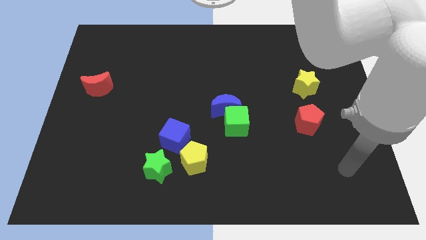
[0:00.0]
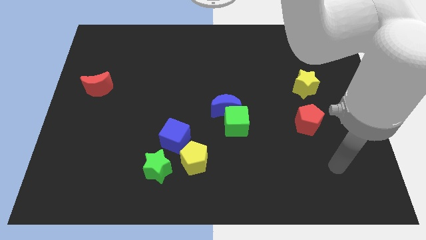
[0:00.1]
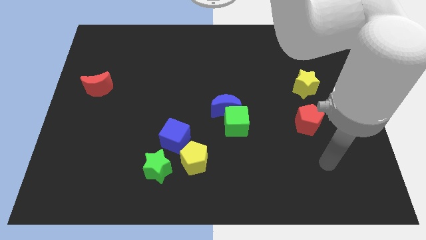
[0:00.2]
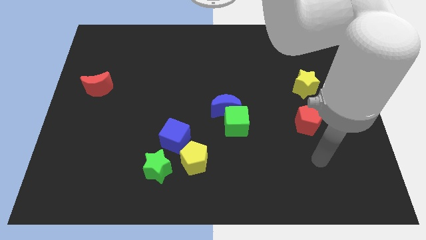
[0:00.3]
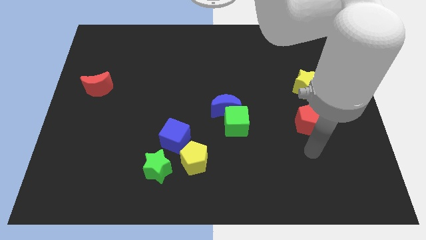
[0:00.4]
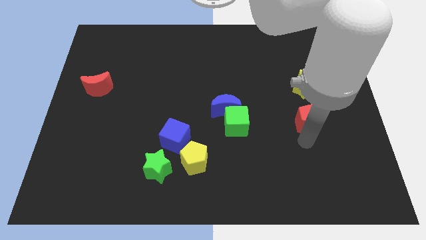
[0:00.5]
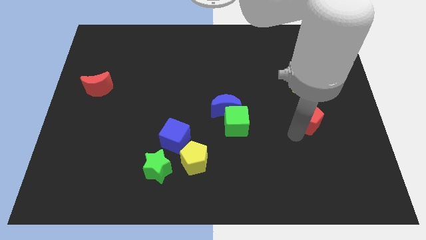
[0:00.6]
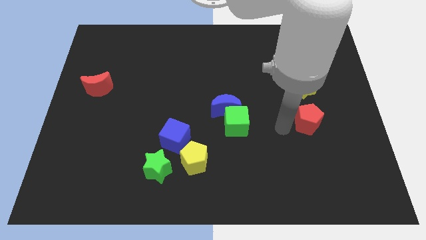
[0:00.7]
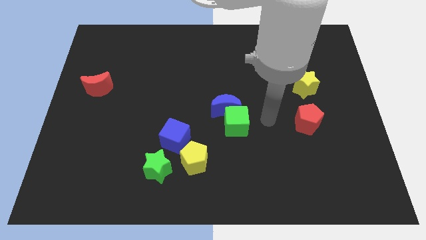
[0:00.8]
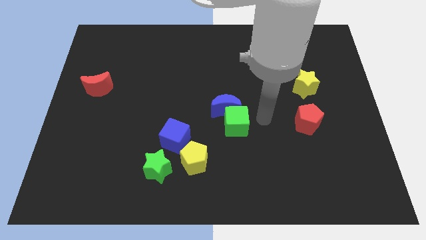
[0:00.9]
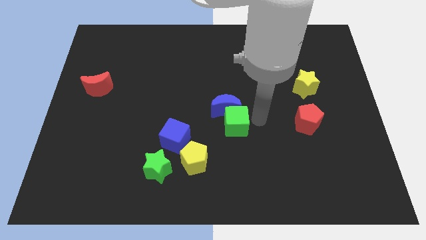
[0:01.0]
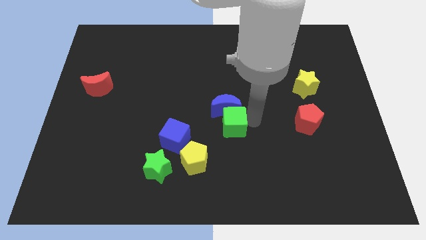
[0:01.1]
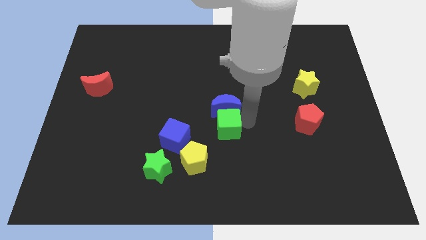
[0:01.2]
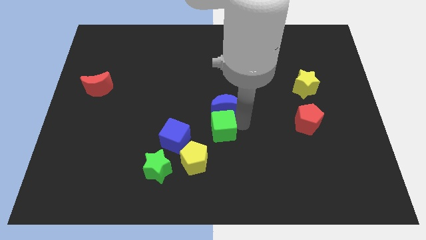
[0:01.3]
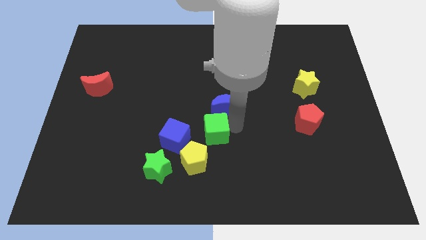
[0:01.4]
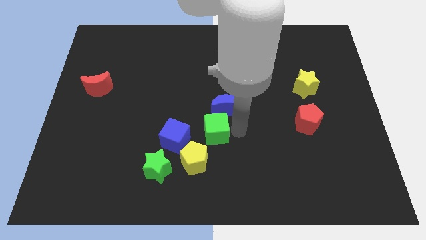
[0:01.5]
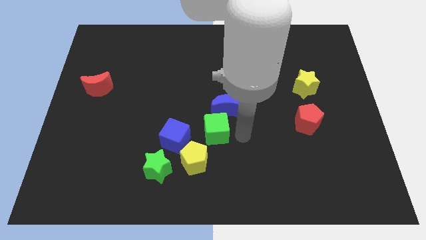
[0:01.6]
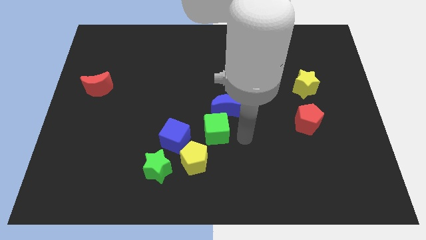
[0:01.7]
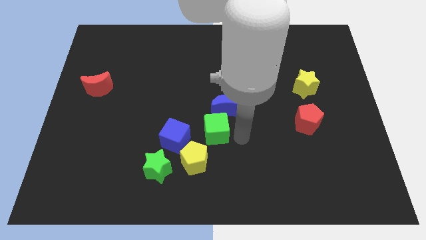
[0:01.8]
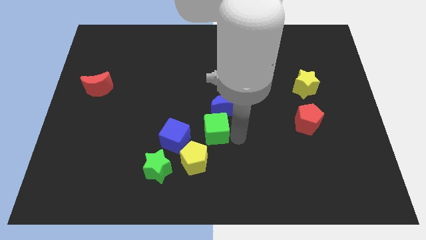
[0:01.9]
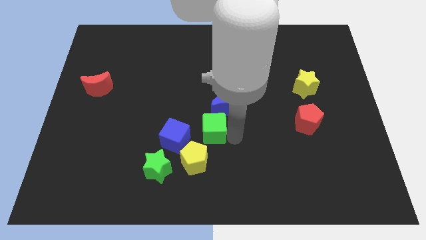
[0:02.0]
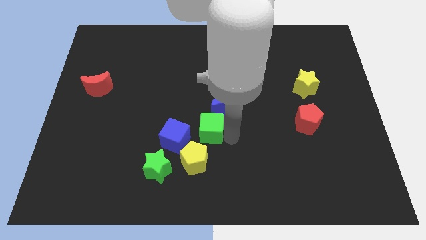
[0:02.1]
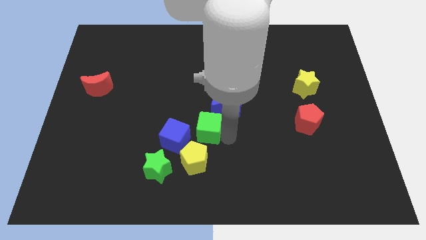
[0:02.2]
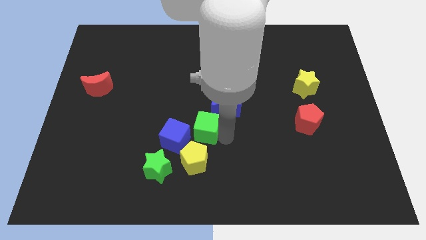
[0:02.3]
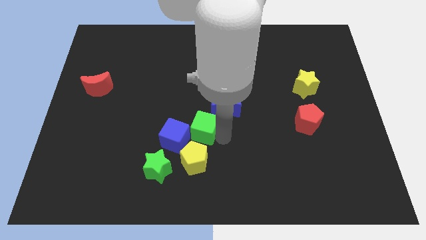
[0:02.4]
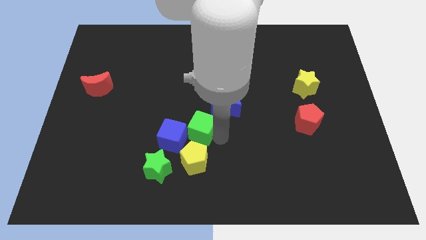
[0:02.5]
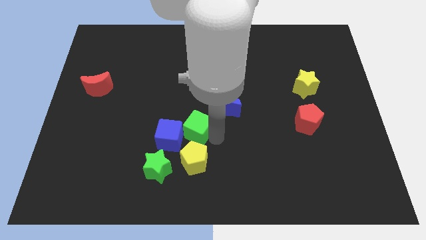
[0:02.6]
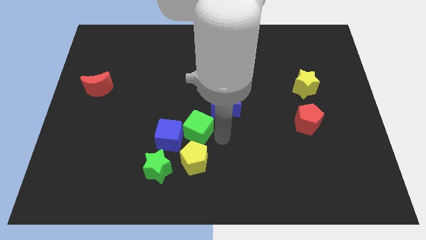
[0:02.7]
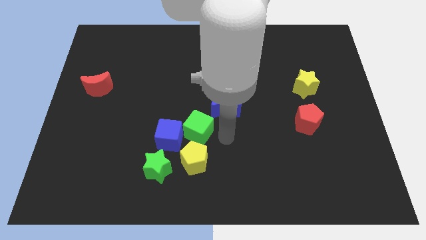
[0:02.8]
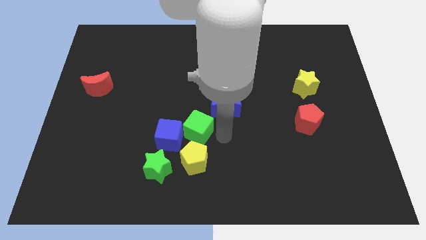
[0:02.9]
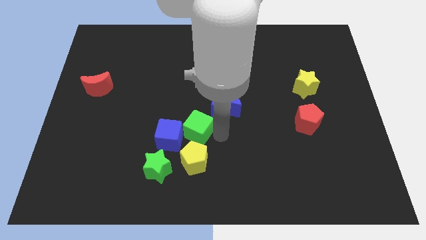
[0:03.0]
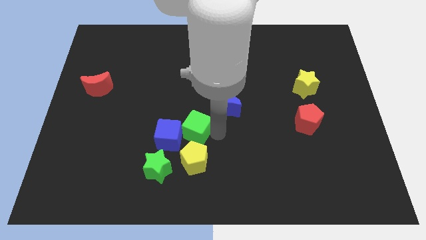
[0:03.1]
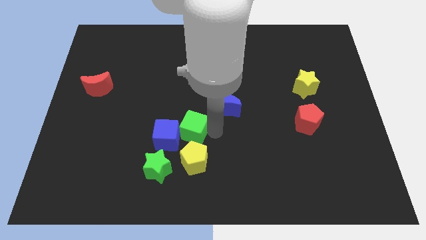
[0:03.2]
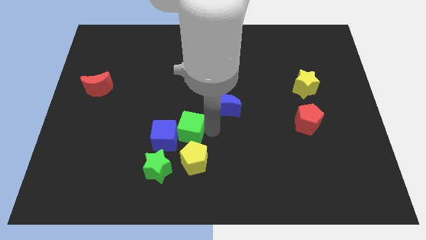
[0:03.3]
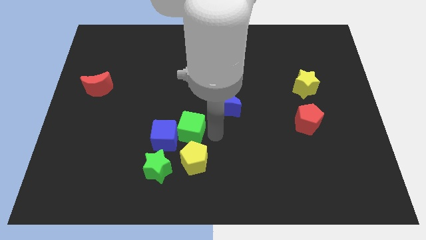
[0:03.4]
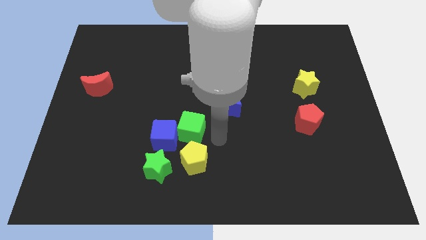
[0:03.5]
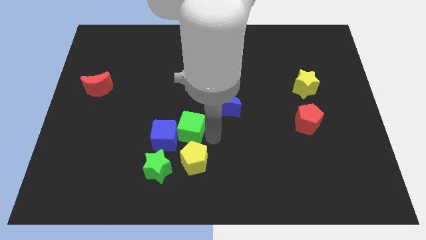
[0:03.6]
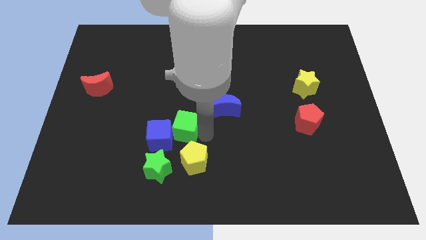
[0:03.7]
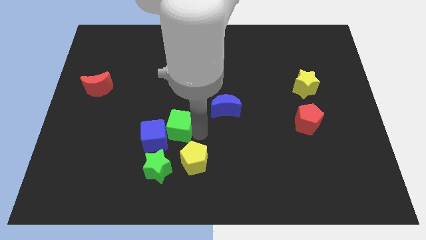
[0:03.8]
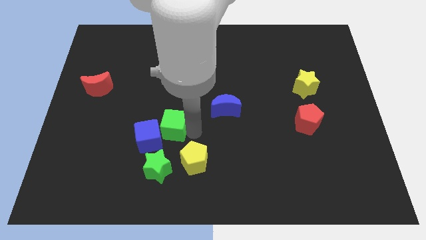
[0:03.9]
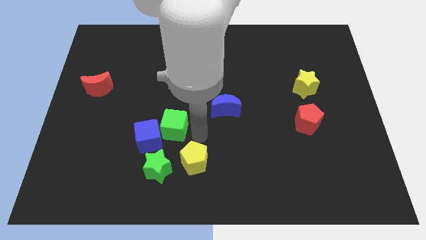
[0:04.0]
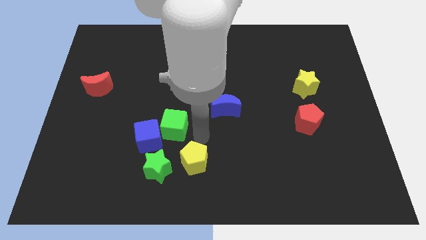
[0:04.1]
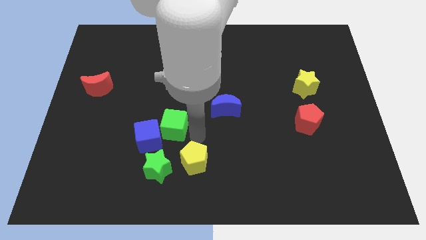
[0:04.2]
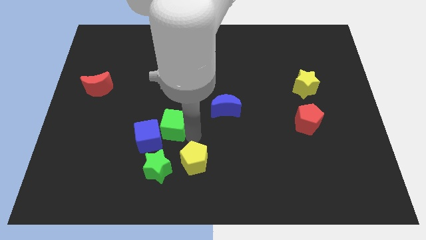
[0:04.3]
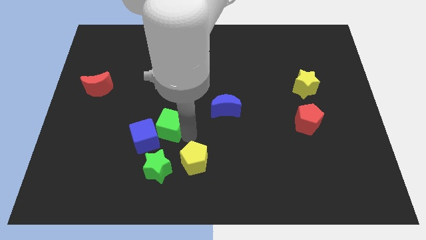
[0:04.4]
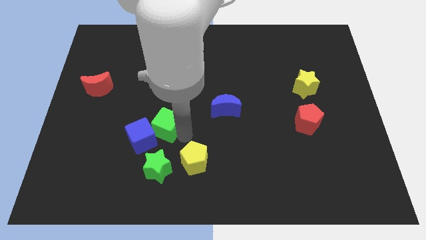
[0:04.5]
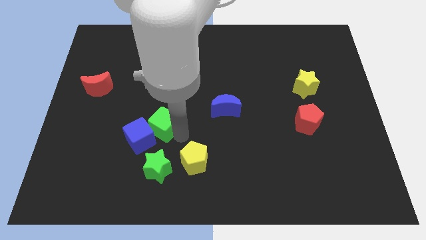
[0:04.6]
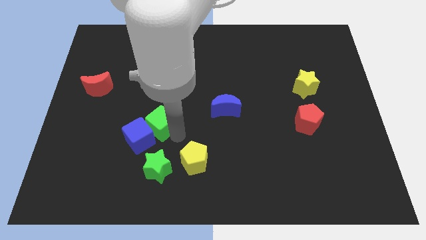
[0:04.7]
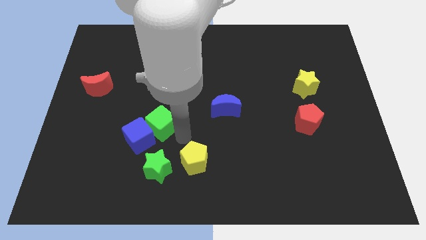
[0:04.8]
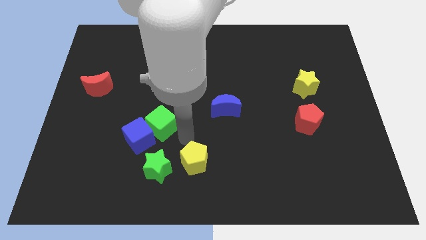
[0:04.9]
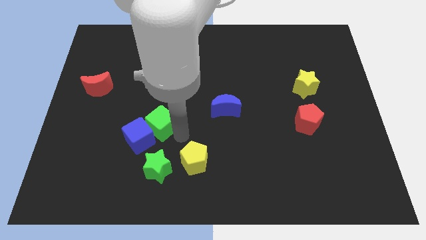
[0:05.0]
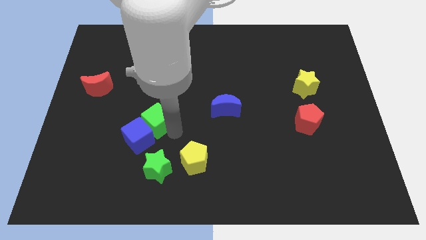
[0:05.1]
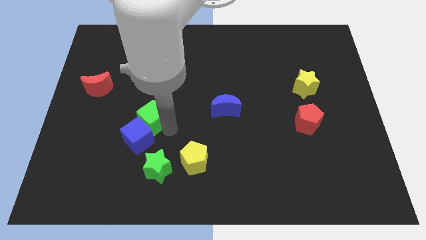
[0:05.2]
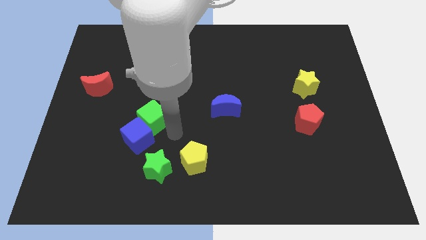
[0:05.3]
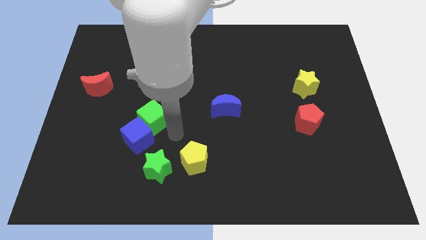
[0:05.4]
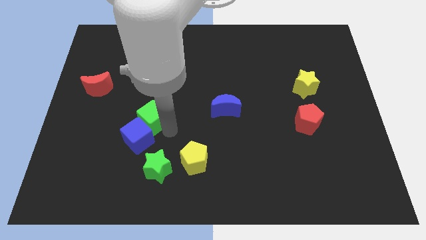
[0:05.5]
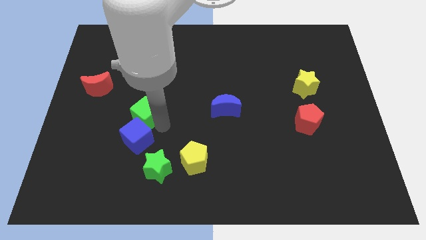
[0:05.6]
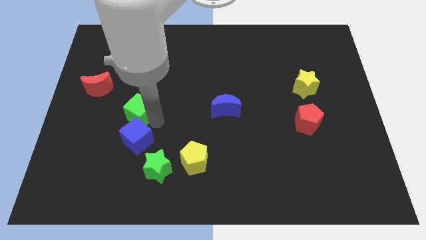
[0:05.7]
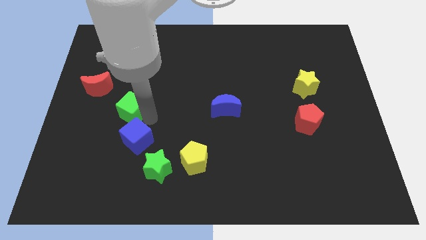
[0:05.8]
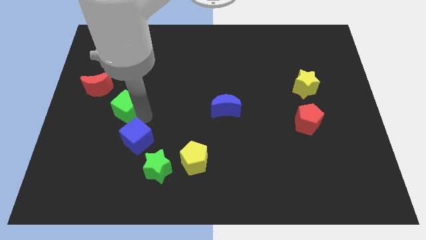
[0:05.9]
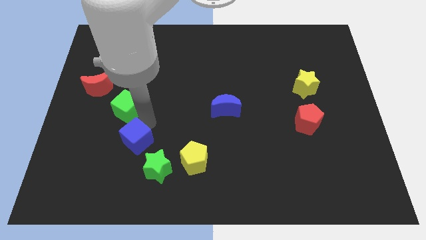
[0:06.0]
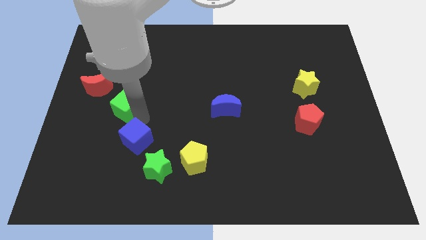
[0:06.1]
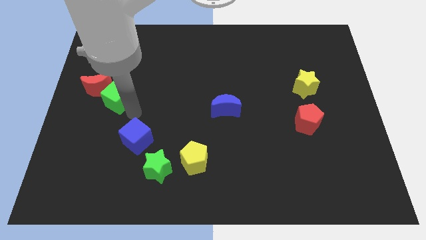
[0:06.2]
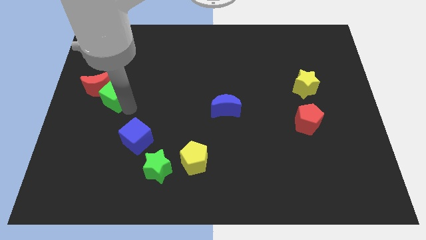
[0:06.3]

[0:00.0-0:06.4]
put the green cube next to the red moon

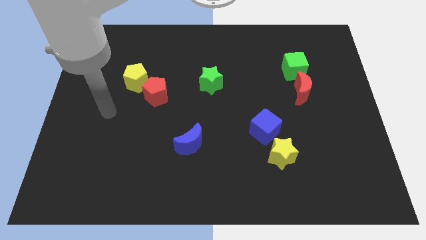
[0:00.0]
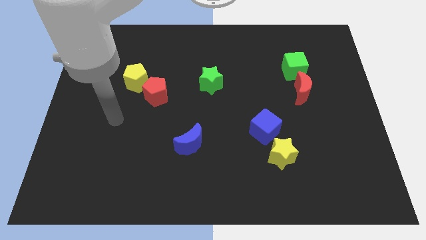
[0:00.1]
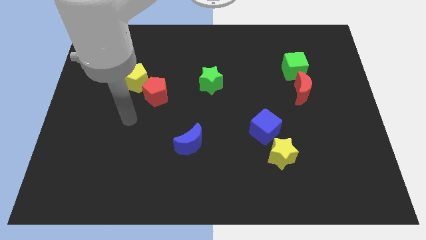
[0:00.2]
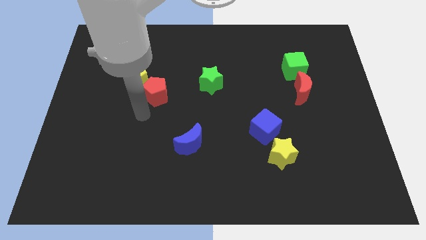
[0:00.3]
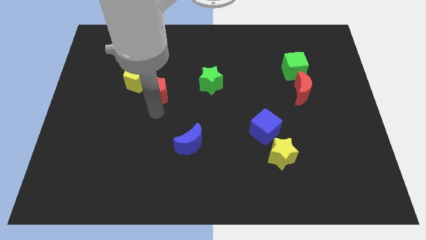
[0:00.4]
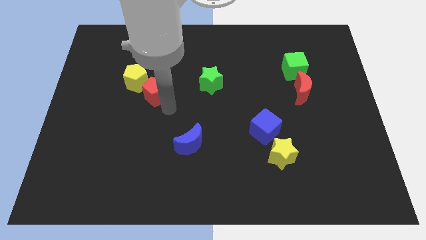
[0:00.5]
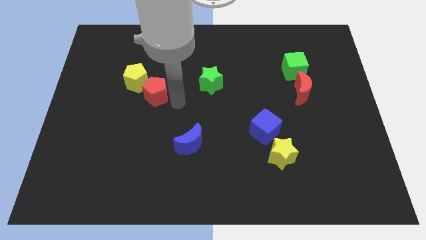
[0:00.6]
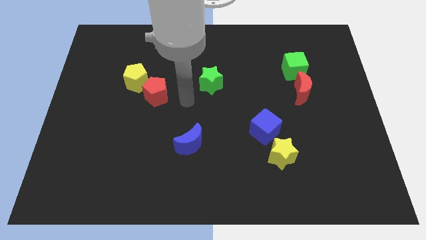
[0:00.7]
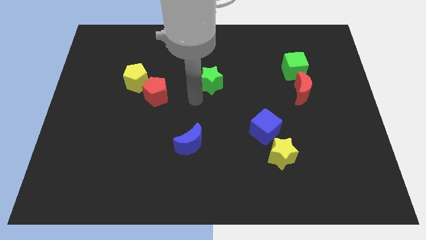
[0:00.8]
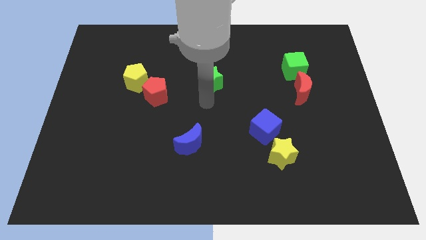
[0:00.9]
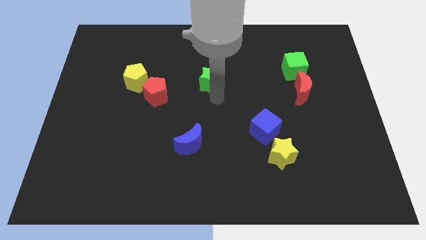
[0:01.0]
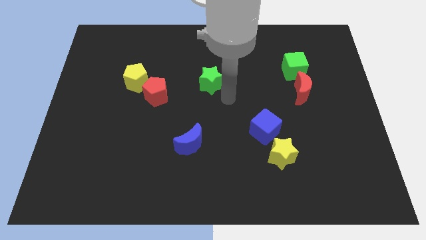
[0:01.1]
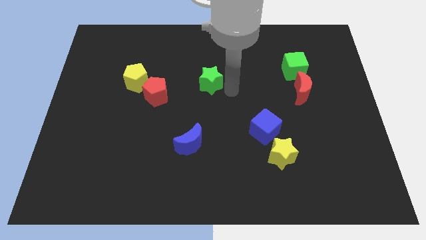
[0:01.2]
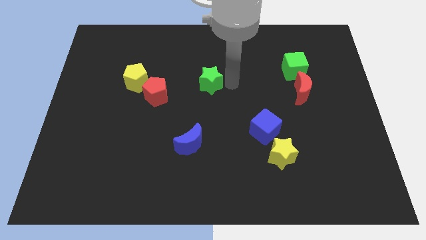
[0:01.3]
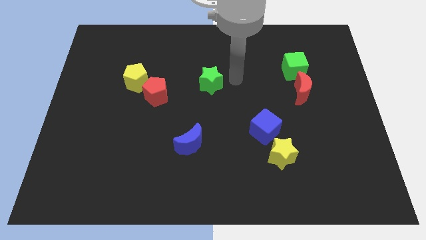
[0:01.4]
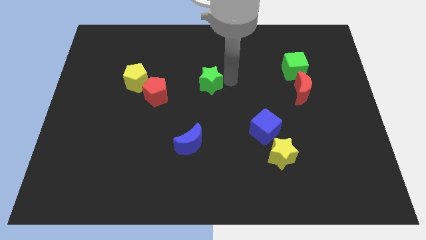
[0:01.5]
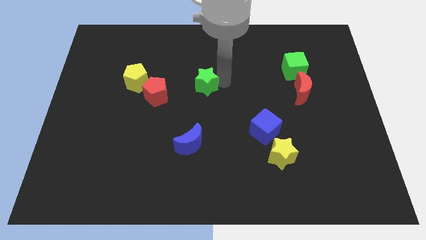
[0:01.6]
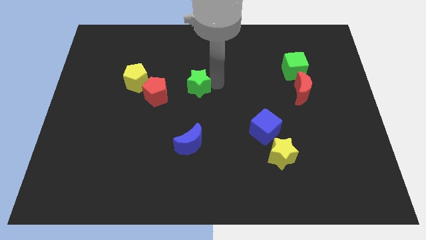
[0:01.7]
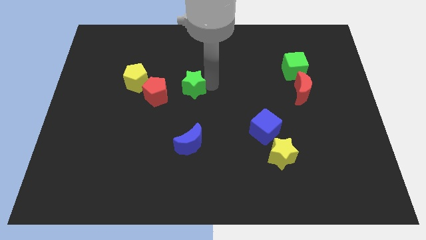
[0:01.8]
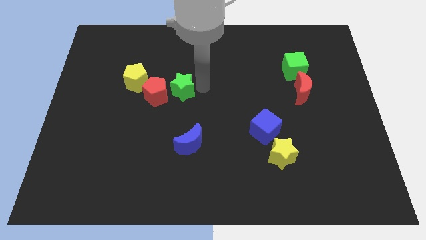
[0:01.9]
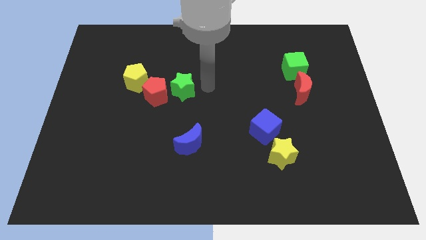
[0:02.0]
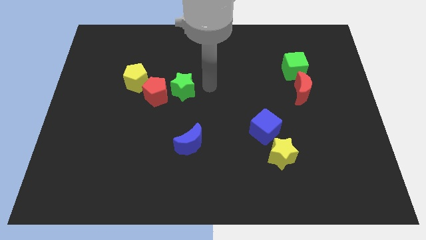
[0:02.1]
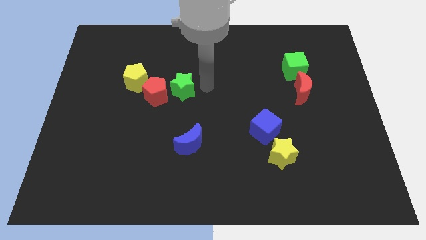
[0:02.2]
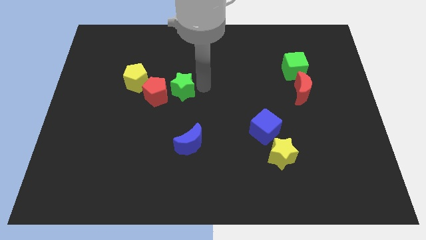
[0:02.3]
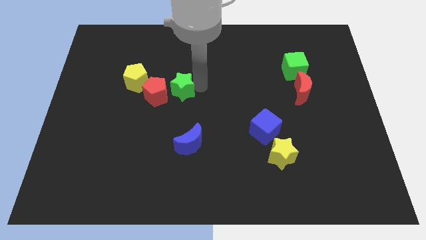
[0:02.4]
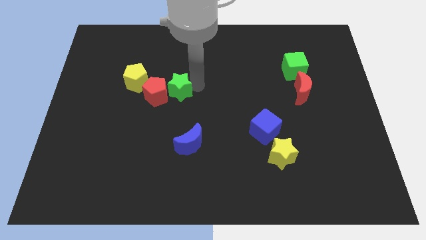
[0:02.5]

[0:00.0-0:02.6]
put the green star towards the red pentagon
